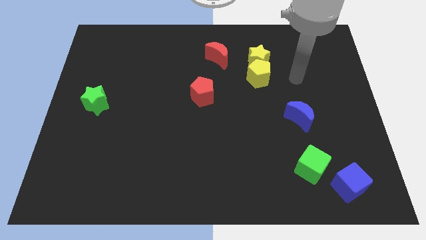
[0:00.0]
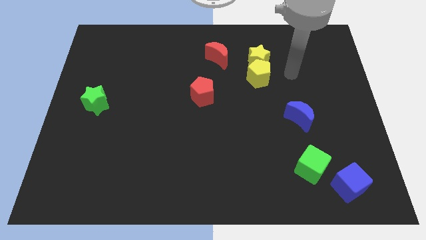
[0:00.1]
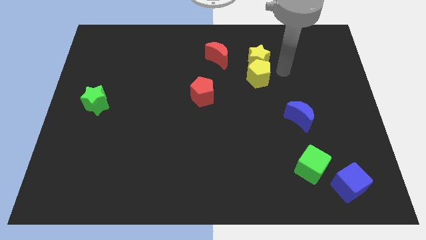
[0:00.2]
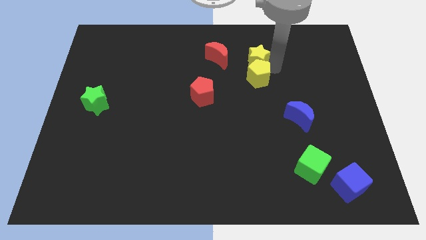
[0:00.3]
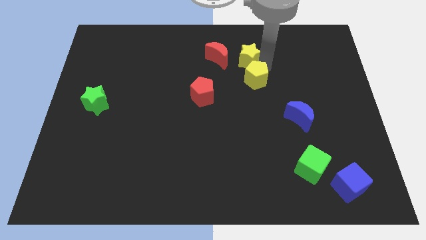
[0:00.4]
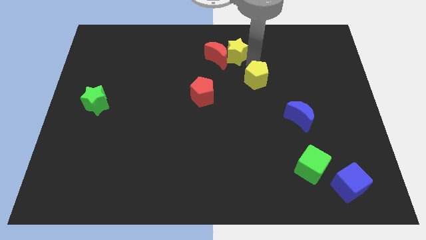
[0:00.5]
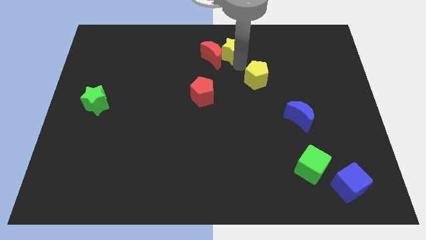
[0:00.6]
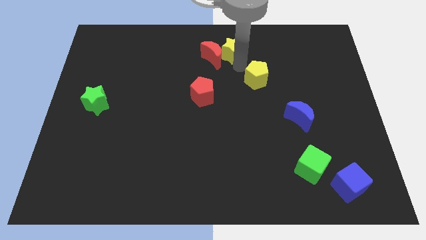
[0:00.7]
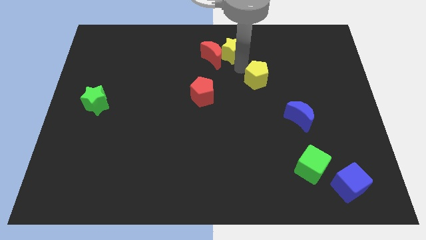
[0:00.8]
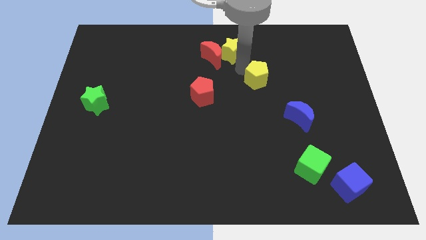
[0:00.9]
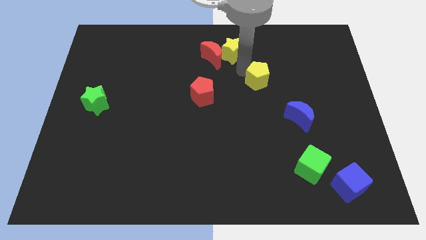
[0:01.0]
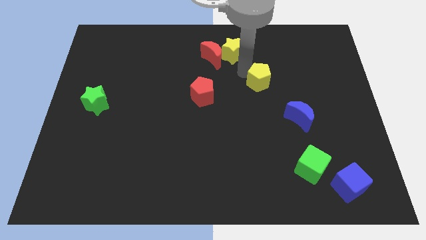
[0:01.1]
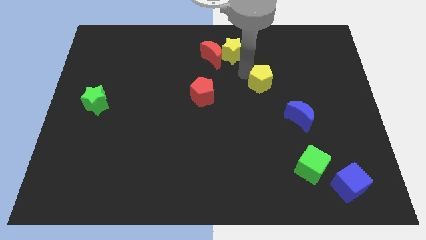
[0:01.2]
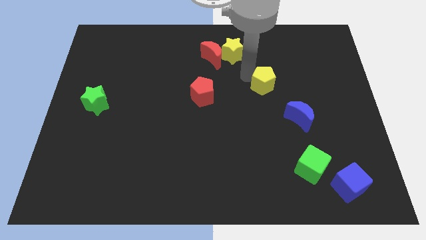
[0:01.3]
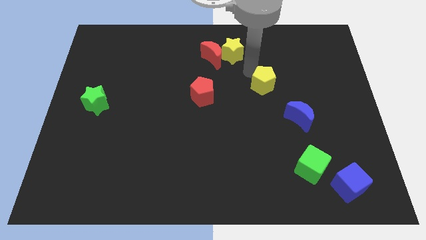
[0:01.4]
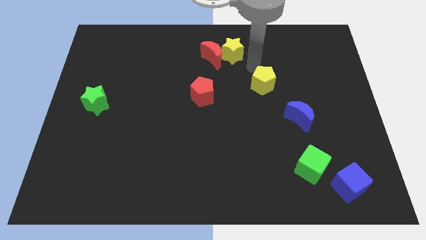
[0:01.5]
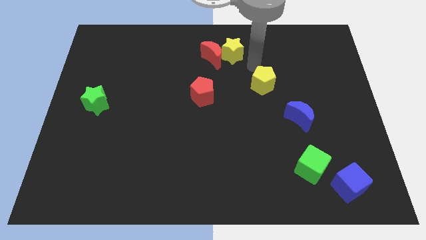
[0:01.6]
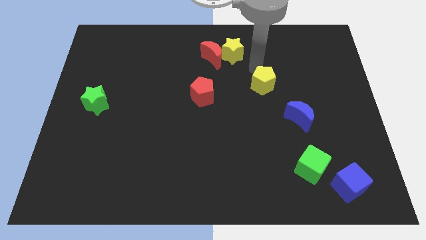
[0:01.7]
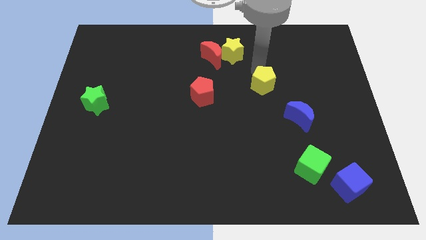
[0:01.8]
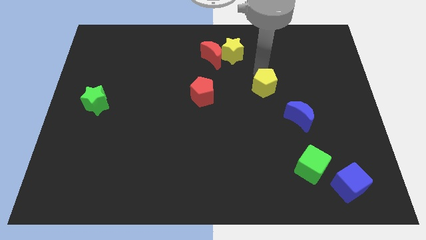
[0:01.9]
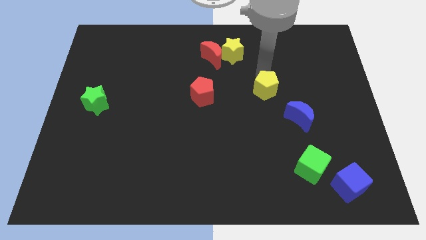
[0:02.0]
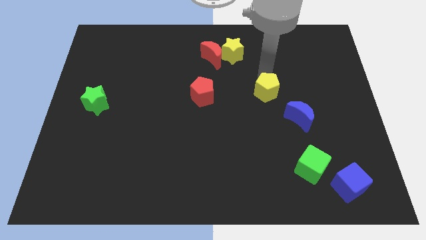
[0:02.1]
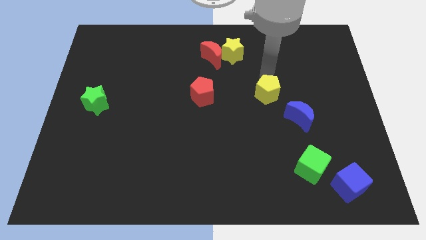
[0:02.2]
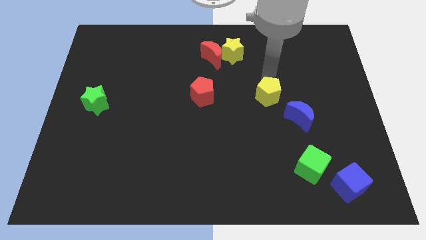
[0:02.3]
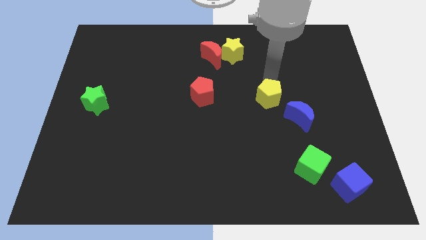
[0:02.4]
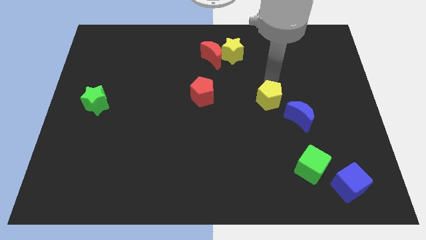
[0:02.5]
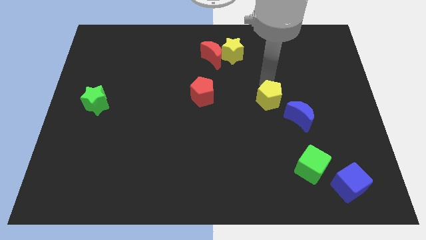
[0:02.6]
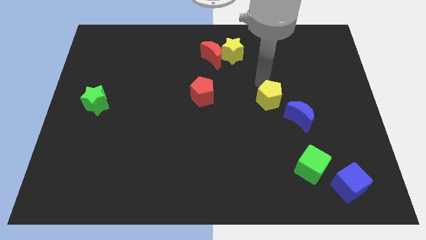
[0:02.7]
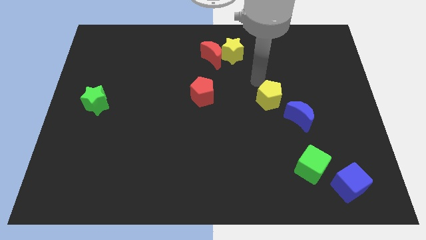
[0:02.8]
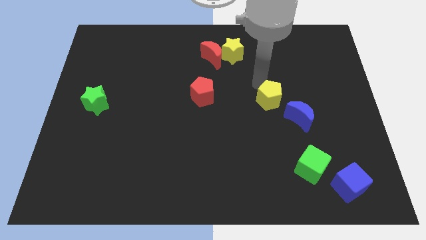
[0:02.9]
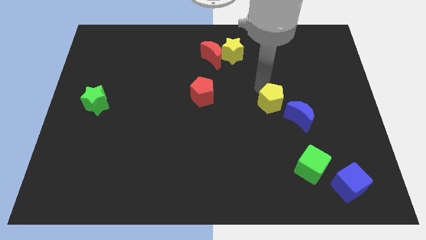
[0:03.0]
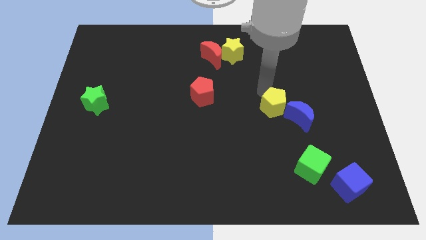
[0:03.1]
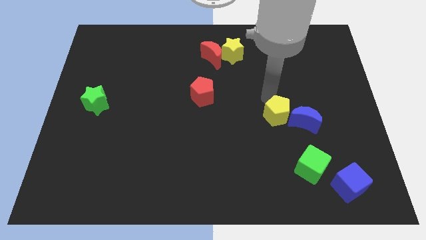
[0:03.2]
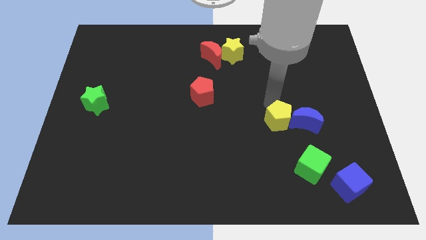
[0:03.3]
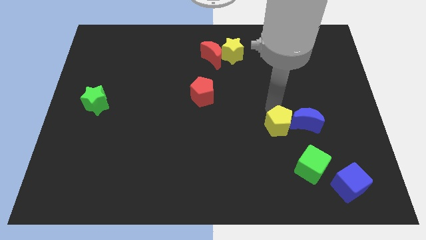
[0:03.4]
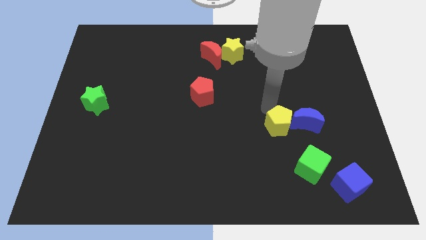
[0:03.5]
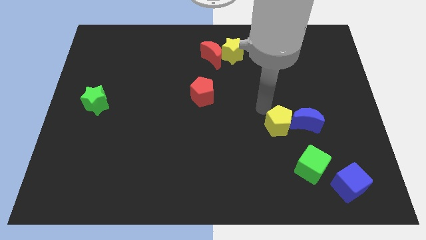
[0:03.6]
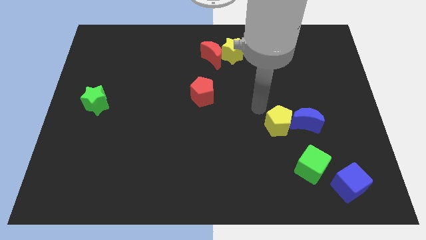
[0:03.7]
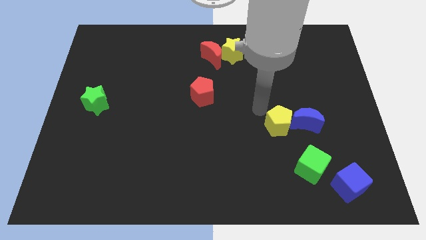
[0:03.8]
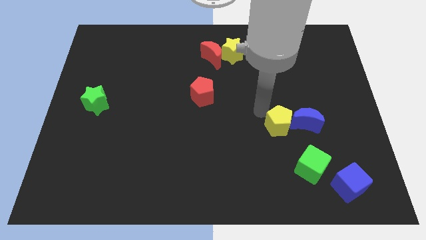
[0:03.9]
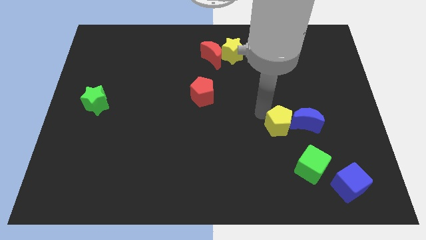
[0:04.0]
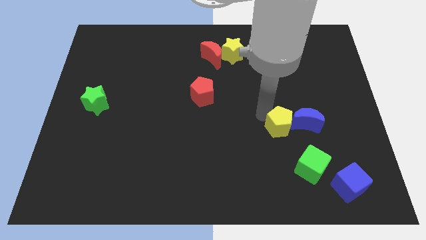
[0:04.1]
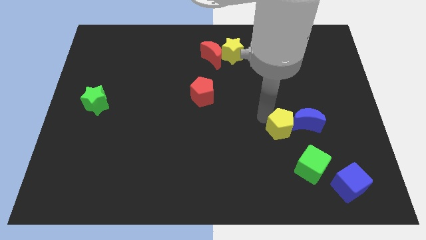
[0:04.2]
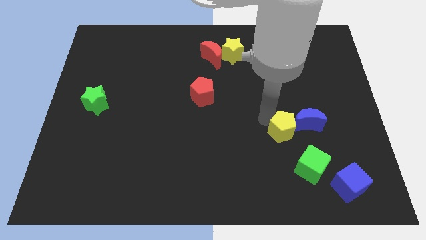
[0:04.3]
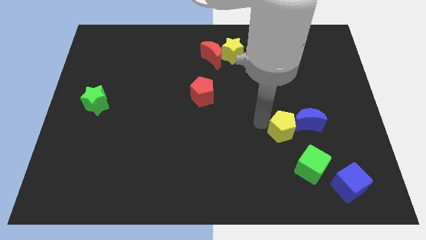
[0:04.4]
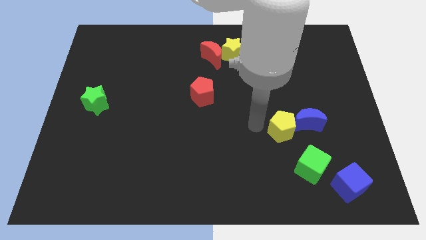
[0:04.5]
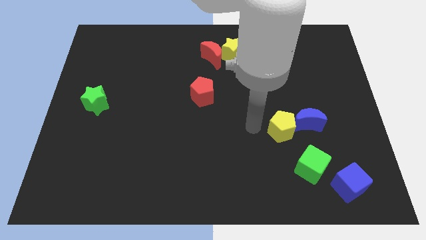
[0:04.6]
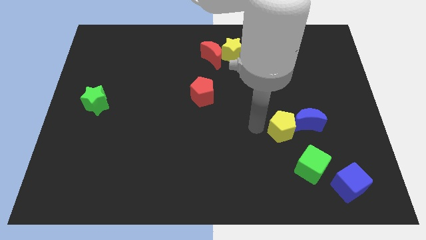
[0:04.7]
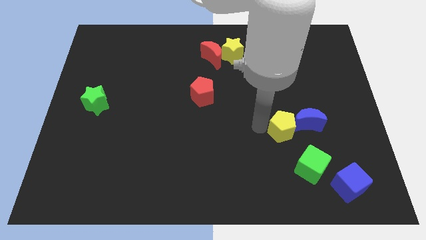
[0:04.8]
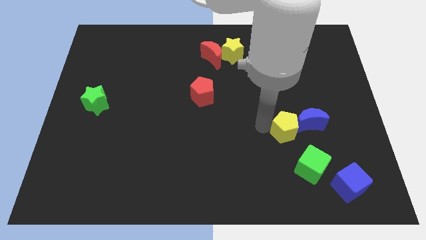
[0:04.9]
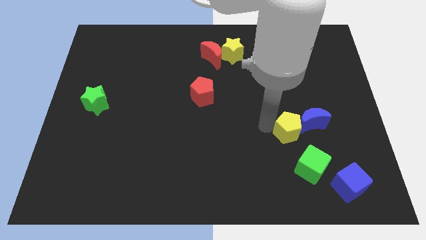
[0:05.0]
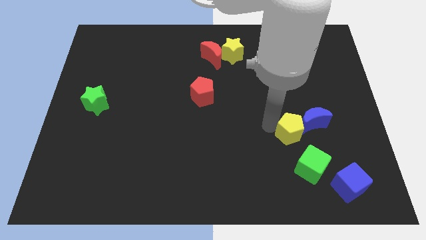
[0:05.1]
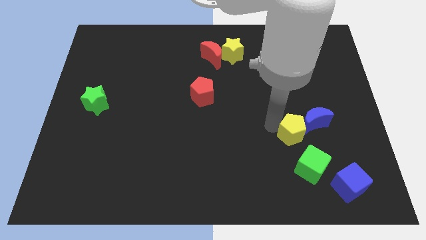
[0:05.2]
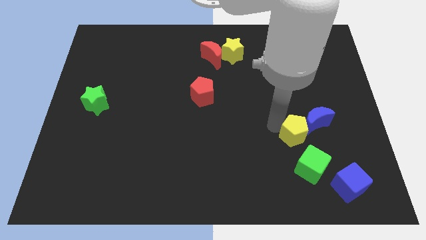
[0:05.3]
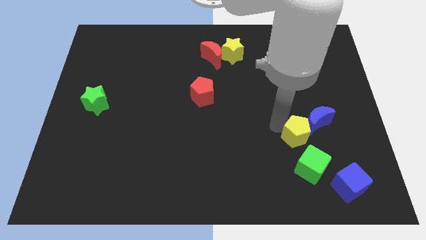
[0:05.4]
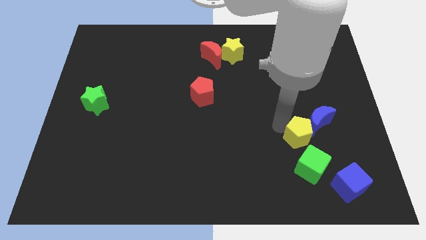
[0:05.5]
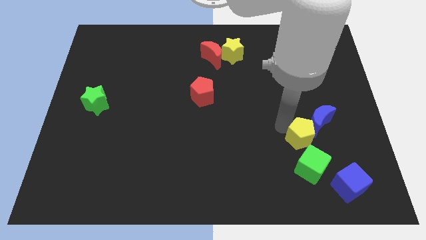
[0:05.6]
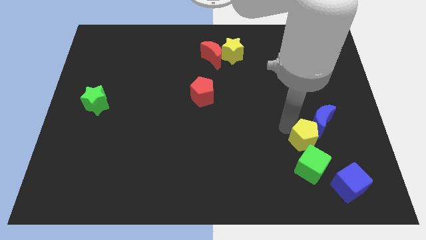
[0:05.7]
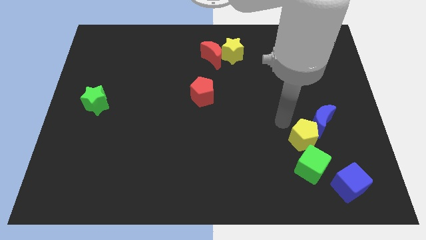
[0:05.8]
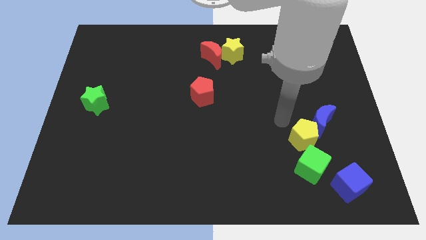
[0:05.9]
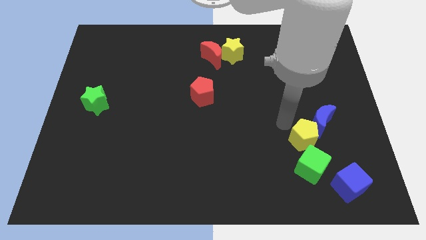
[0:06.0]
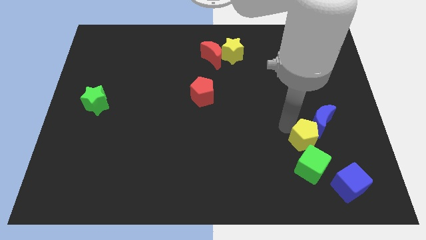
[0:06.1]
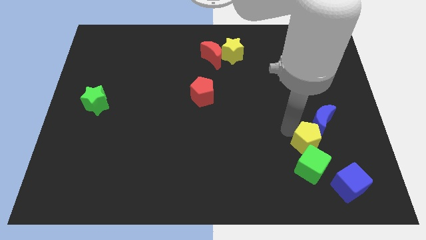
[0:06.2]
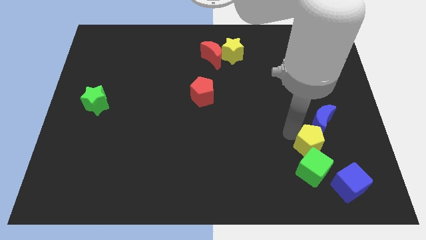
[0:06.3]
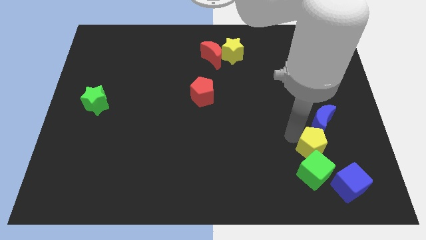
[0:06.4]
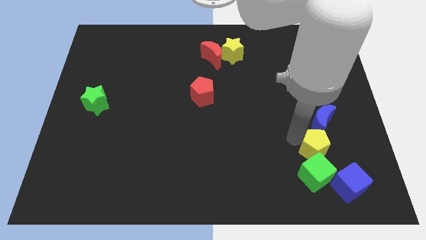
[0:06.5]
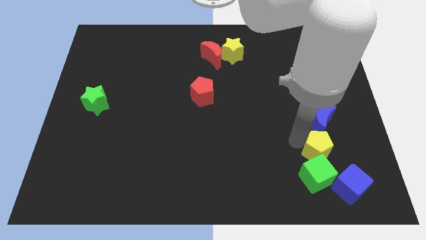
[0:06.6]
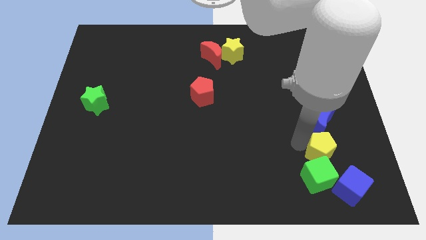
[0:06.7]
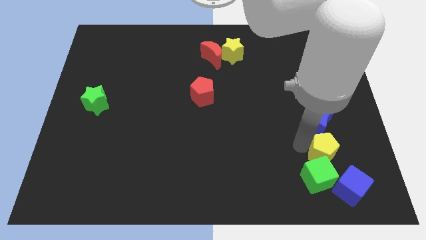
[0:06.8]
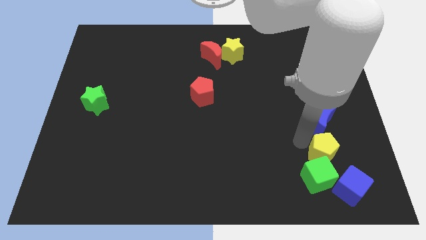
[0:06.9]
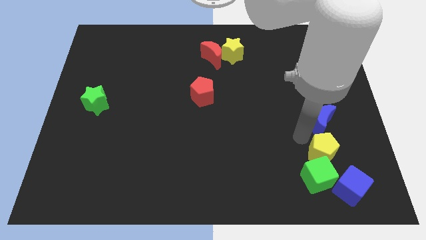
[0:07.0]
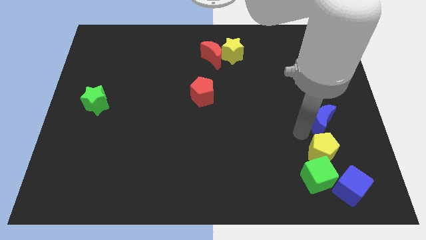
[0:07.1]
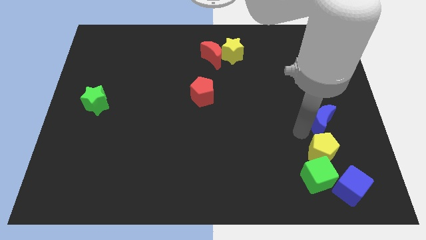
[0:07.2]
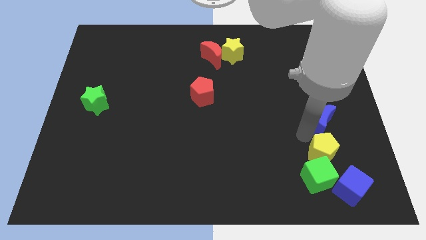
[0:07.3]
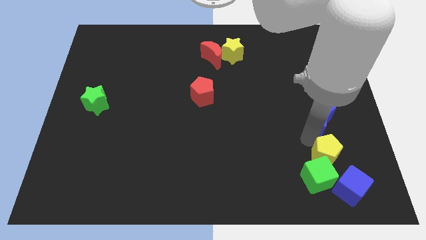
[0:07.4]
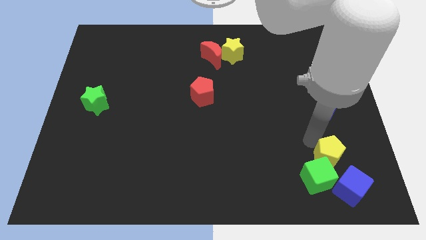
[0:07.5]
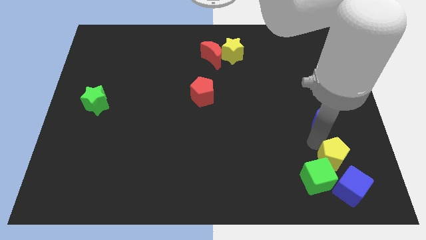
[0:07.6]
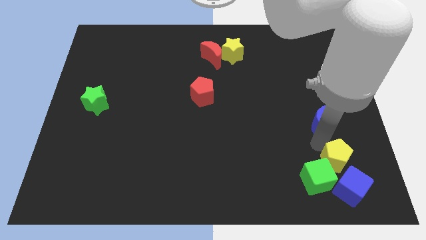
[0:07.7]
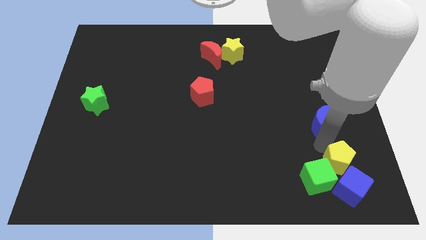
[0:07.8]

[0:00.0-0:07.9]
put the yellow pentagon next to the blue cube
